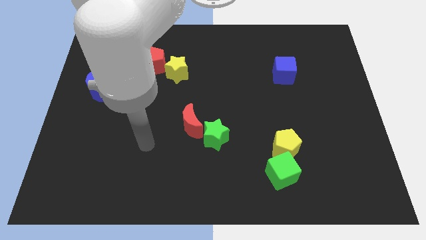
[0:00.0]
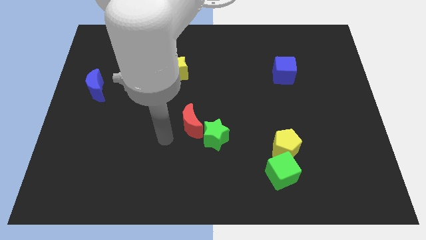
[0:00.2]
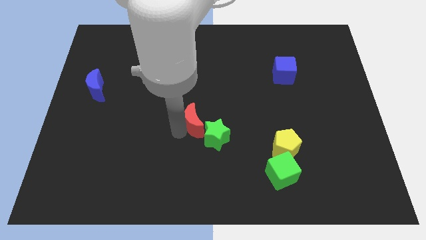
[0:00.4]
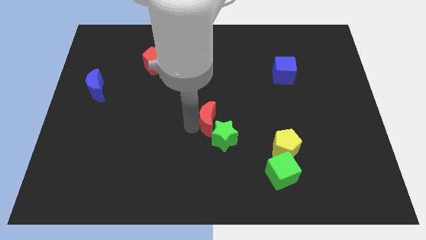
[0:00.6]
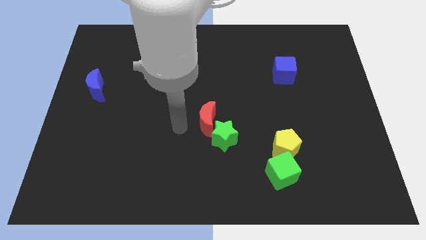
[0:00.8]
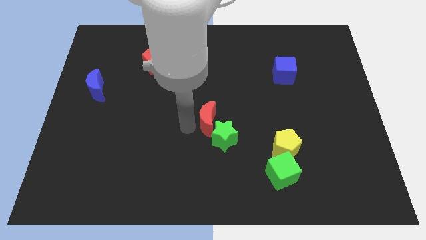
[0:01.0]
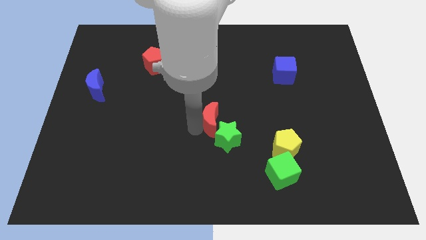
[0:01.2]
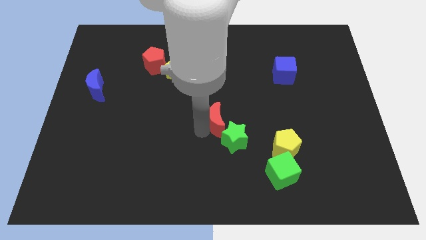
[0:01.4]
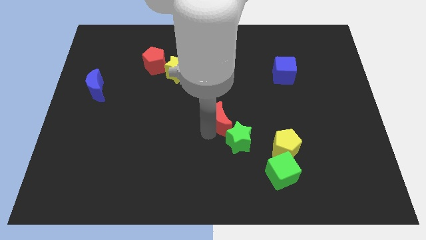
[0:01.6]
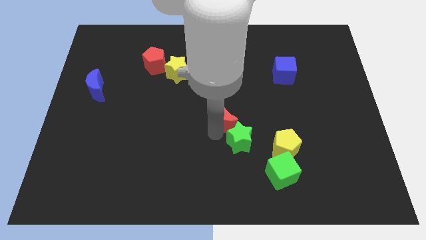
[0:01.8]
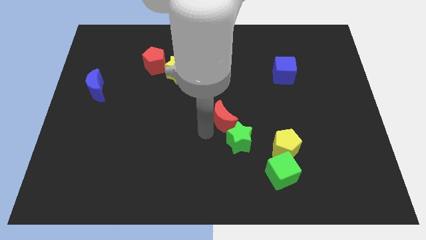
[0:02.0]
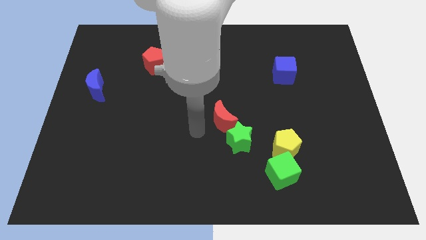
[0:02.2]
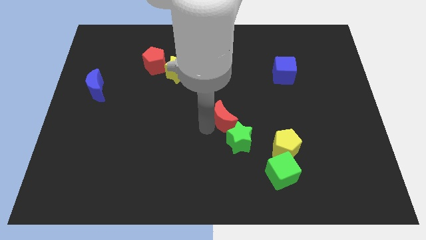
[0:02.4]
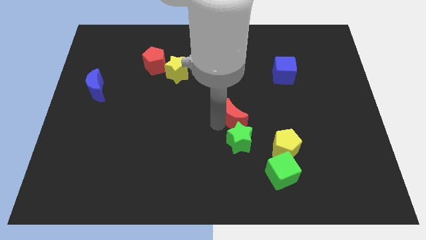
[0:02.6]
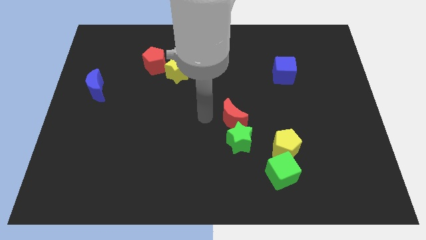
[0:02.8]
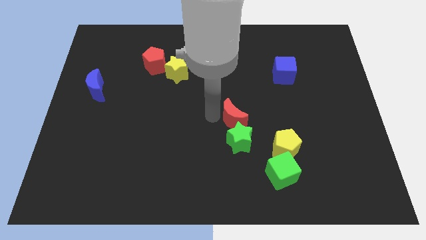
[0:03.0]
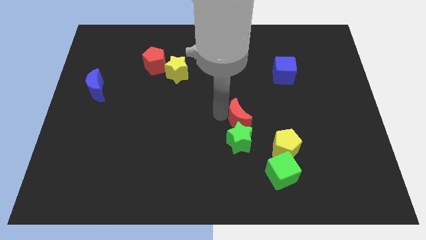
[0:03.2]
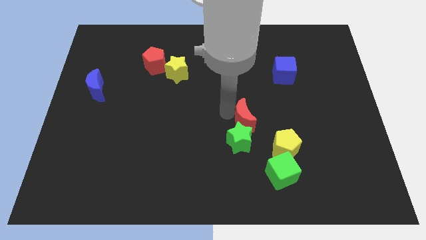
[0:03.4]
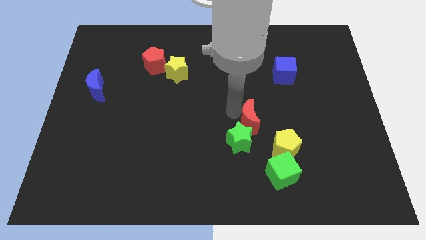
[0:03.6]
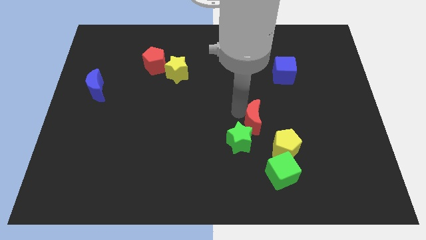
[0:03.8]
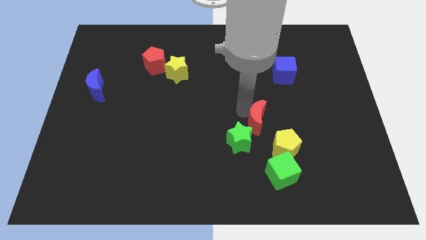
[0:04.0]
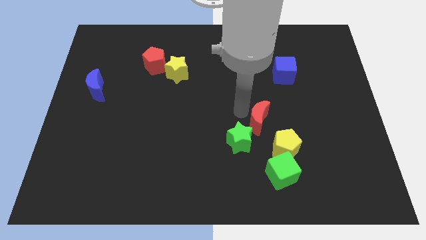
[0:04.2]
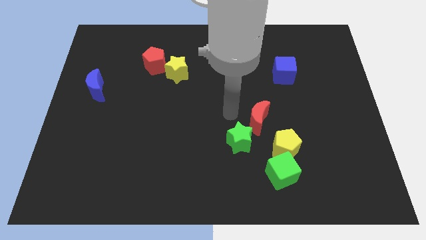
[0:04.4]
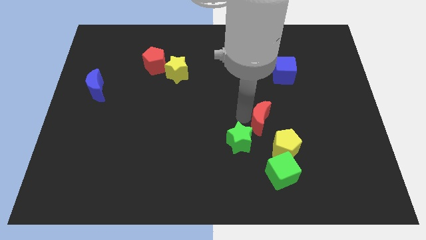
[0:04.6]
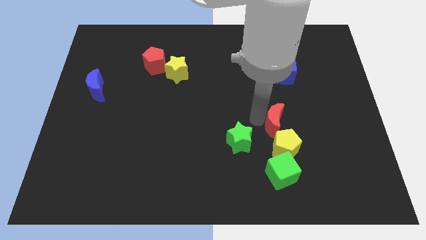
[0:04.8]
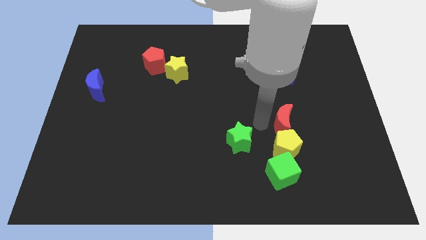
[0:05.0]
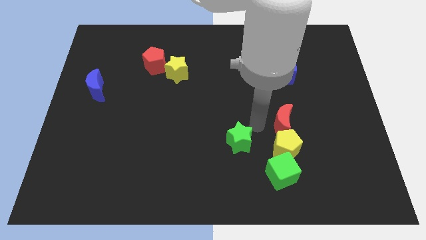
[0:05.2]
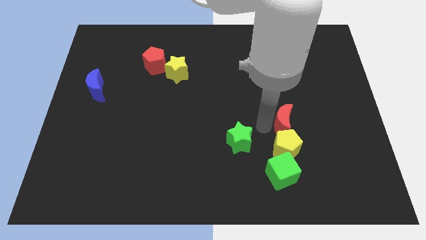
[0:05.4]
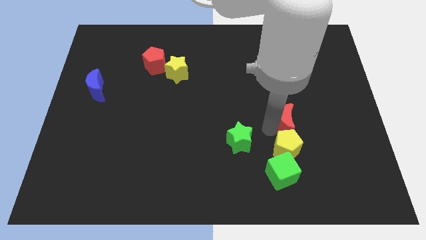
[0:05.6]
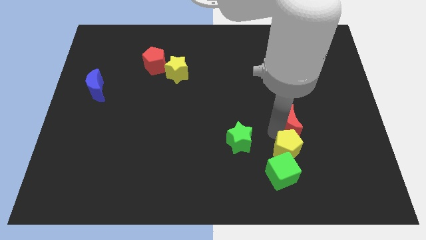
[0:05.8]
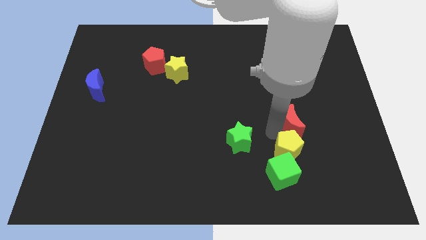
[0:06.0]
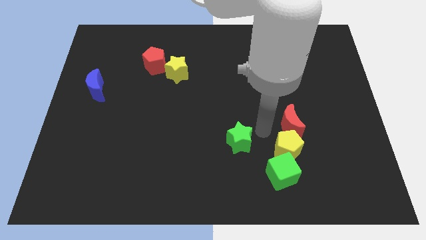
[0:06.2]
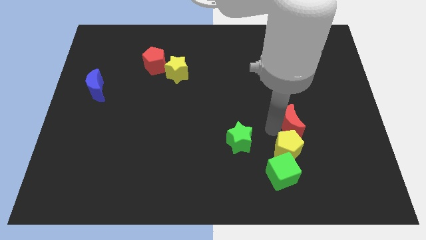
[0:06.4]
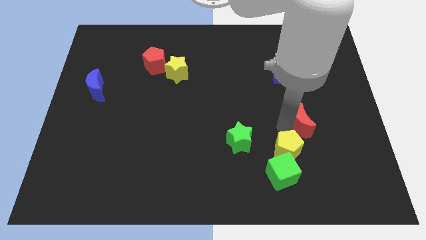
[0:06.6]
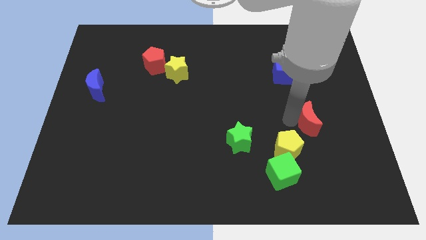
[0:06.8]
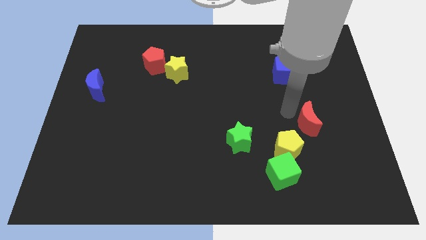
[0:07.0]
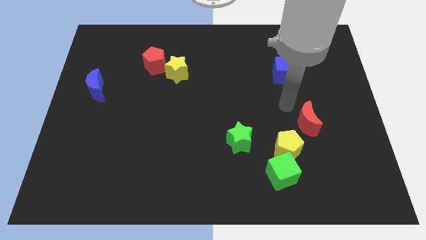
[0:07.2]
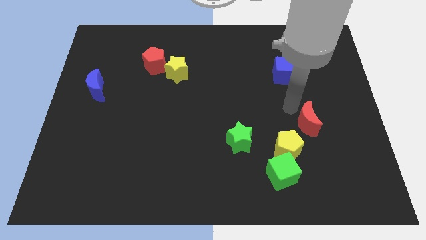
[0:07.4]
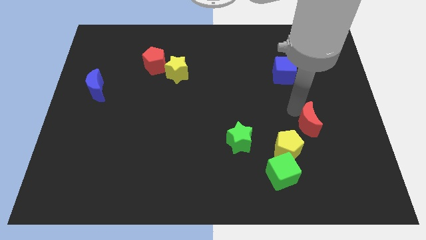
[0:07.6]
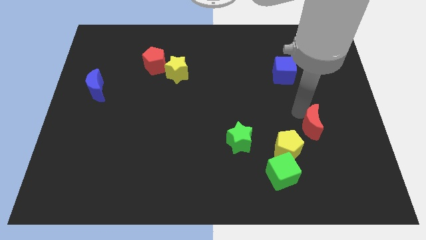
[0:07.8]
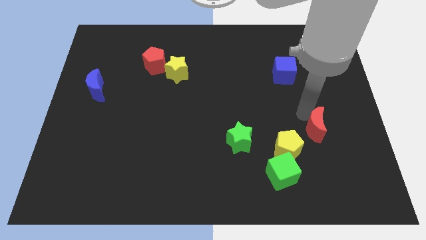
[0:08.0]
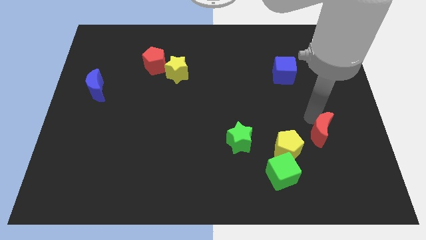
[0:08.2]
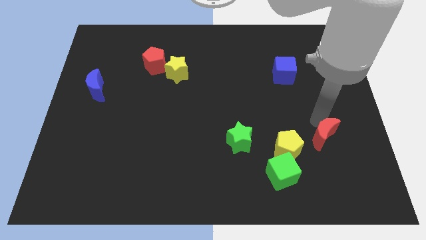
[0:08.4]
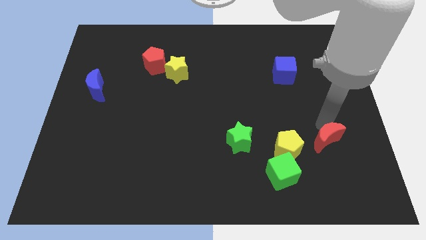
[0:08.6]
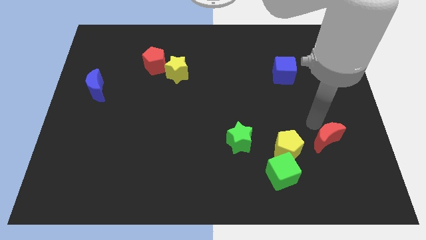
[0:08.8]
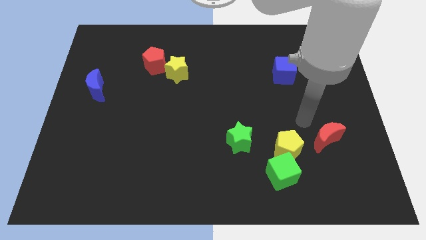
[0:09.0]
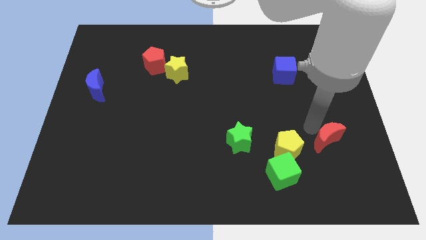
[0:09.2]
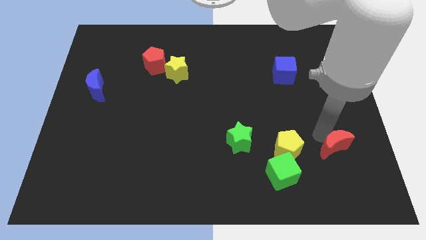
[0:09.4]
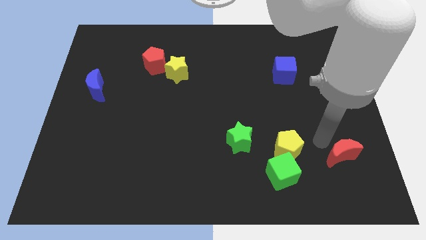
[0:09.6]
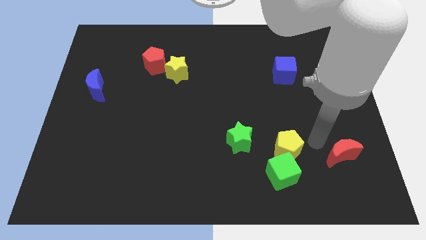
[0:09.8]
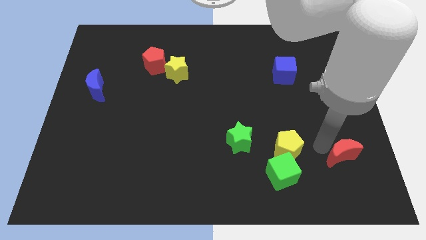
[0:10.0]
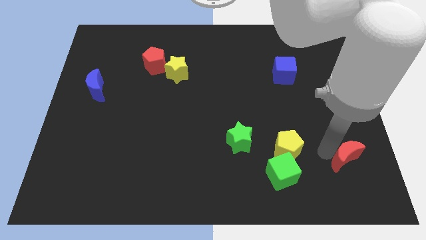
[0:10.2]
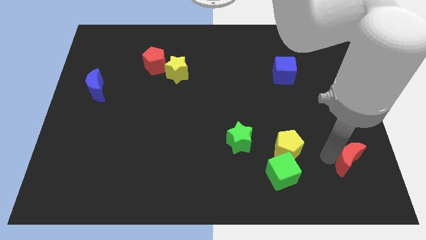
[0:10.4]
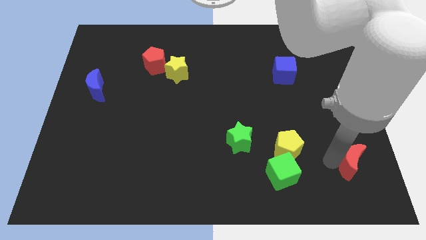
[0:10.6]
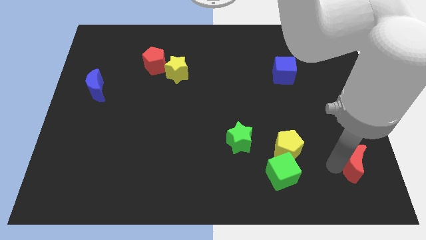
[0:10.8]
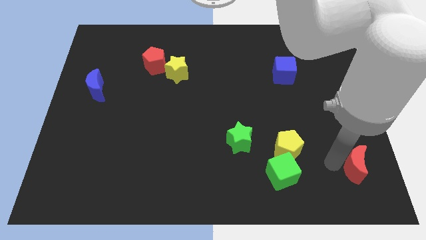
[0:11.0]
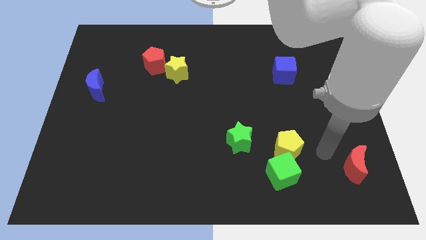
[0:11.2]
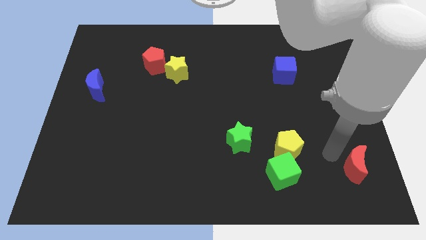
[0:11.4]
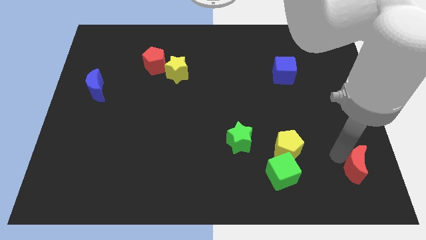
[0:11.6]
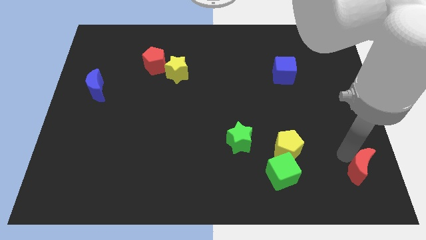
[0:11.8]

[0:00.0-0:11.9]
move the red moon to the lower right corner

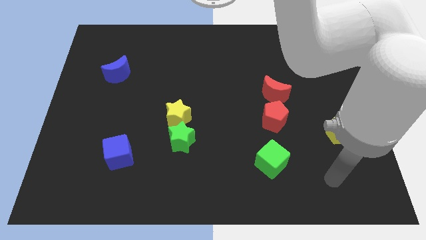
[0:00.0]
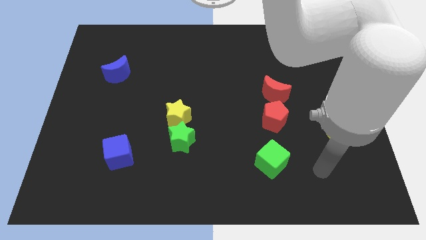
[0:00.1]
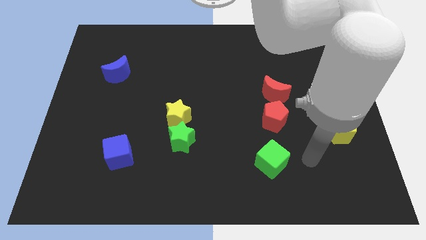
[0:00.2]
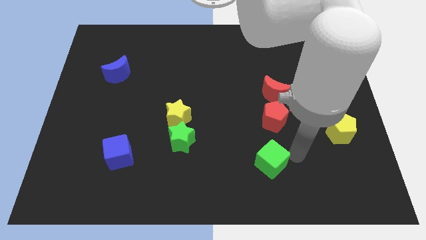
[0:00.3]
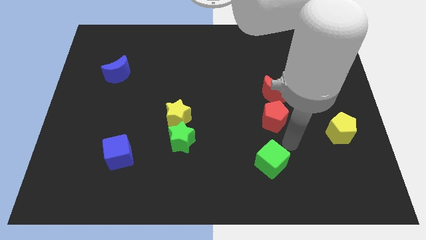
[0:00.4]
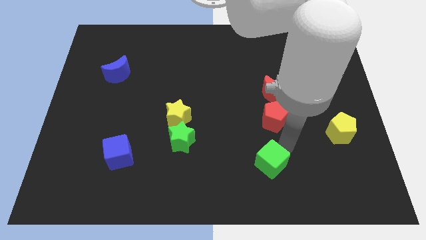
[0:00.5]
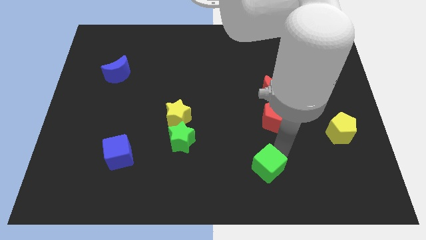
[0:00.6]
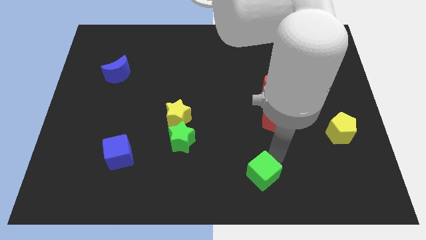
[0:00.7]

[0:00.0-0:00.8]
put the green cube to the bottom
